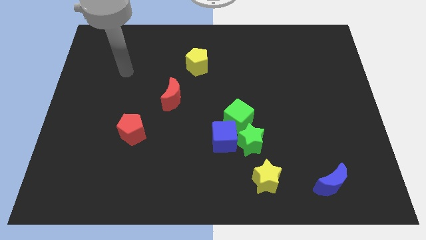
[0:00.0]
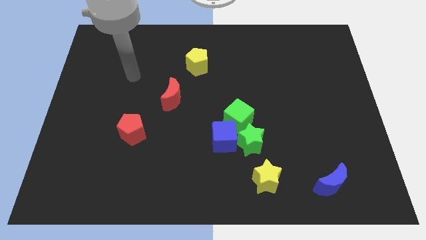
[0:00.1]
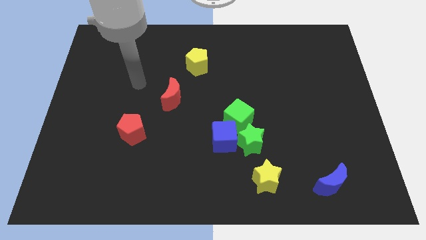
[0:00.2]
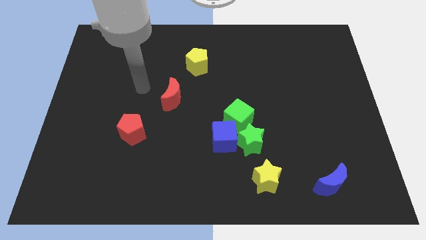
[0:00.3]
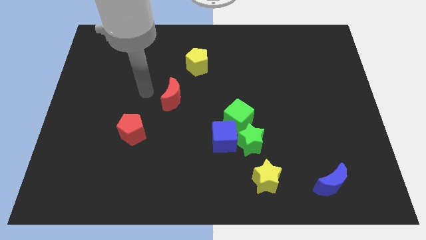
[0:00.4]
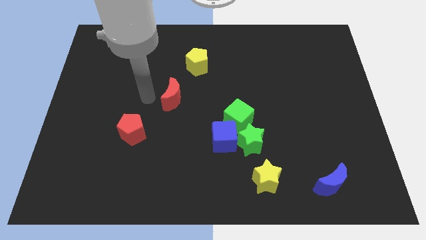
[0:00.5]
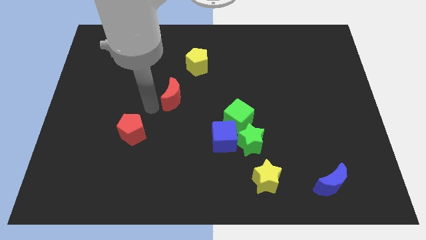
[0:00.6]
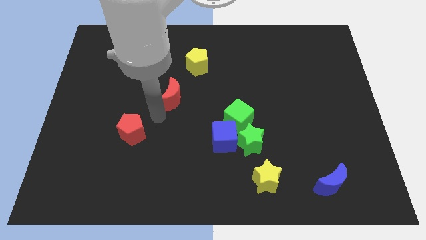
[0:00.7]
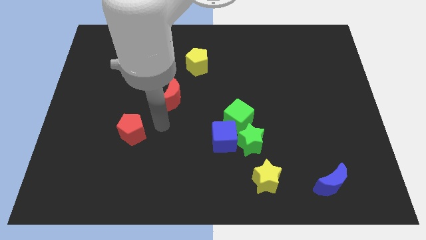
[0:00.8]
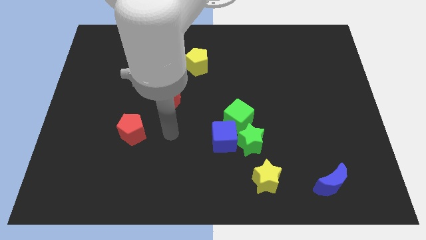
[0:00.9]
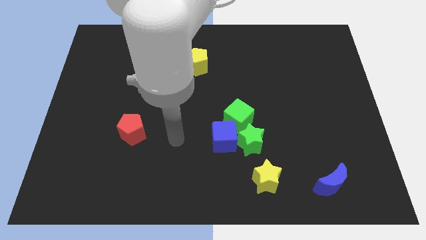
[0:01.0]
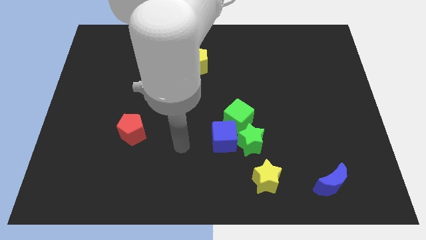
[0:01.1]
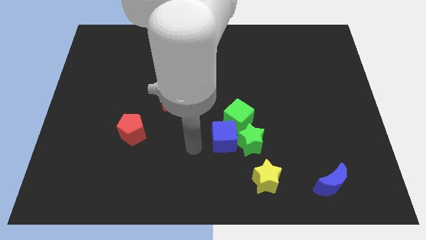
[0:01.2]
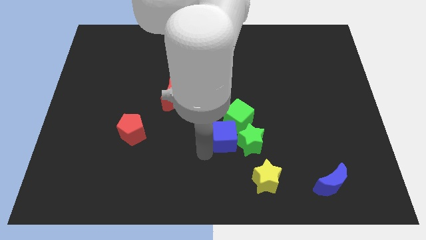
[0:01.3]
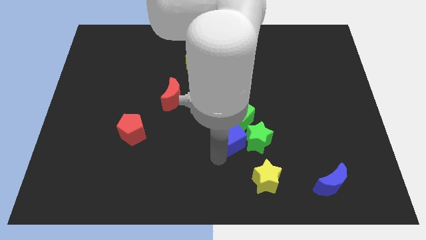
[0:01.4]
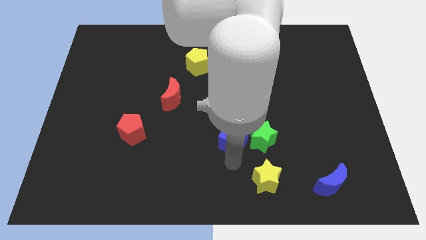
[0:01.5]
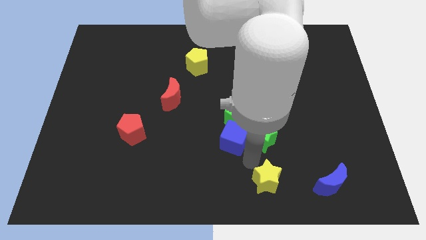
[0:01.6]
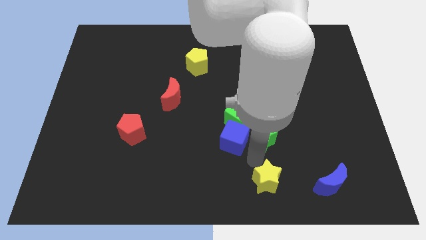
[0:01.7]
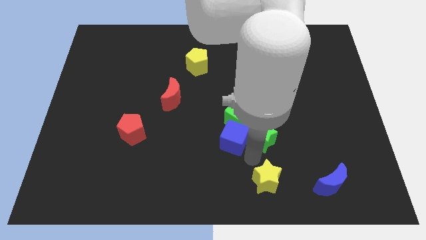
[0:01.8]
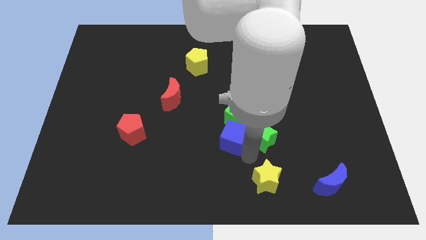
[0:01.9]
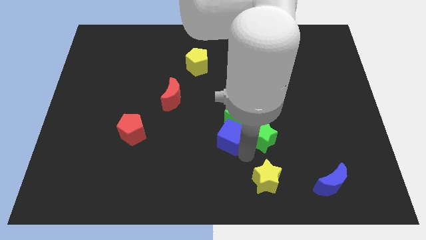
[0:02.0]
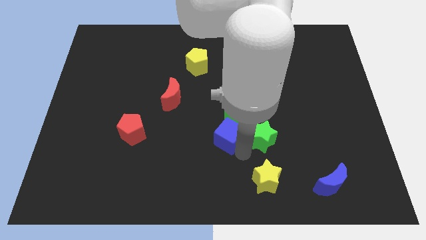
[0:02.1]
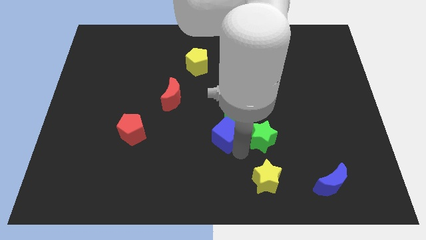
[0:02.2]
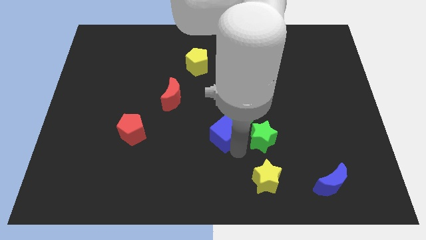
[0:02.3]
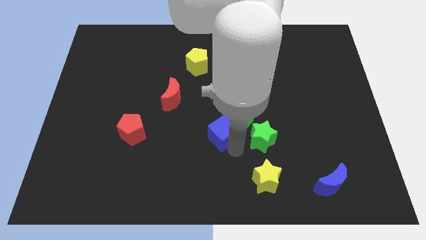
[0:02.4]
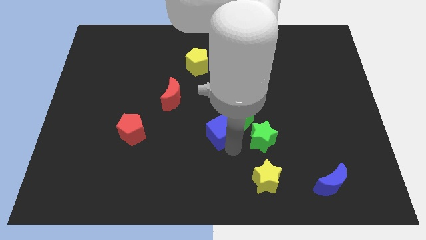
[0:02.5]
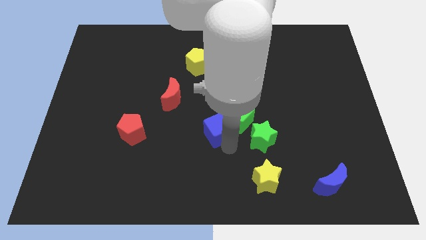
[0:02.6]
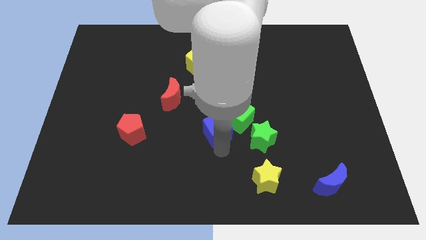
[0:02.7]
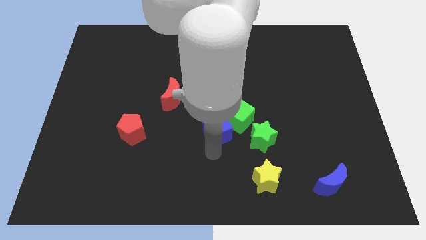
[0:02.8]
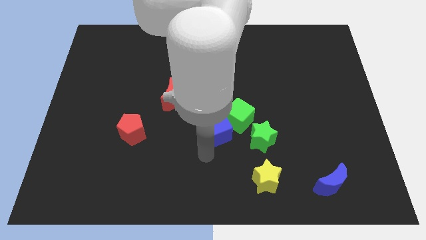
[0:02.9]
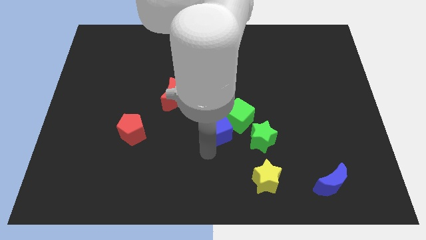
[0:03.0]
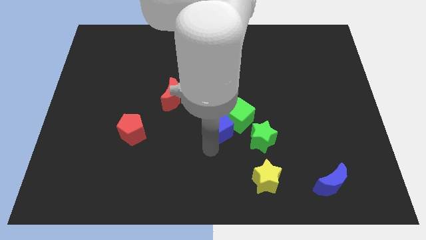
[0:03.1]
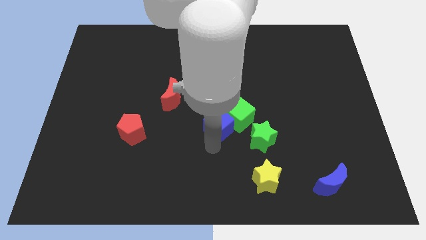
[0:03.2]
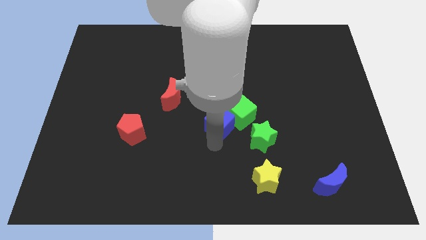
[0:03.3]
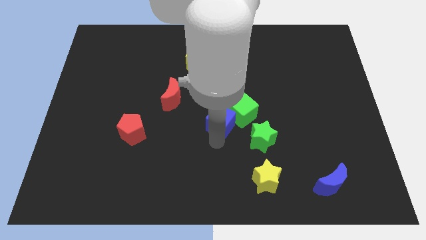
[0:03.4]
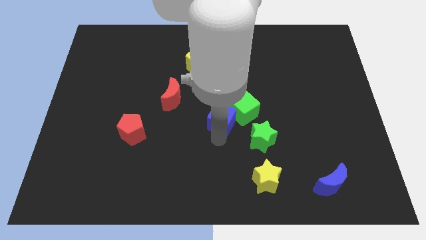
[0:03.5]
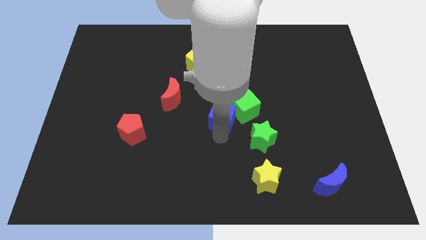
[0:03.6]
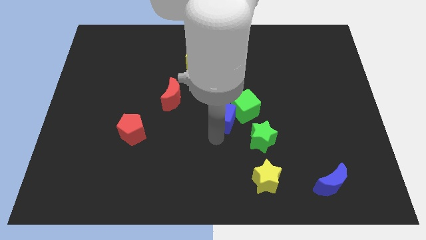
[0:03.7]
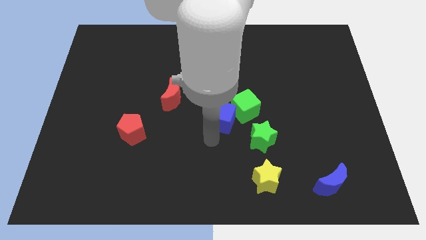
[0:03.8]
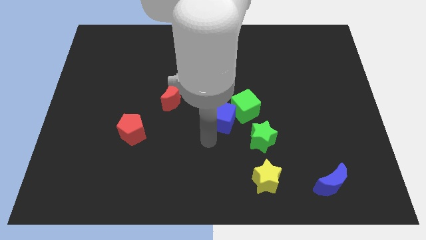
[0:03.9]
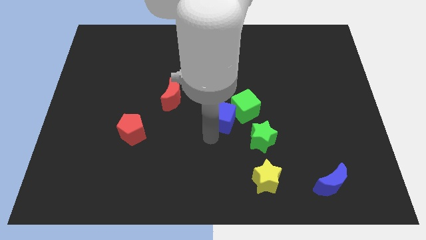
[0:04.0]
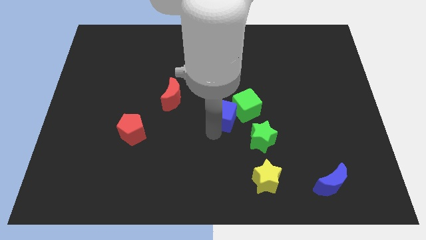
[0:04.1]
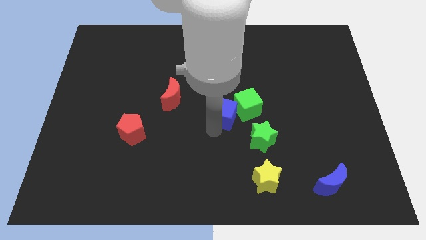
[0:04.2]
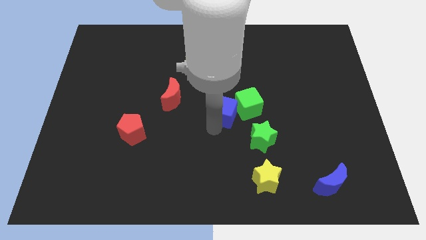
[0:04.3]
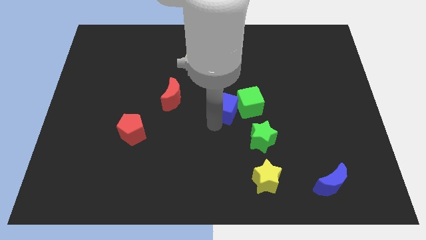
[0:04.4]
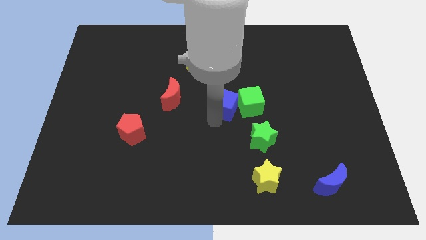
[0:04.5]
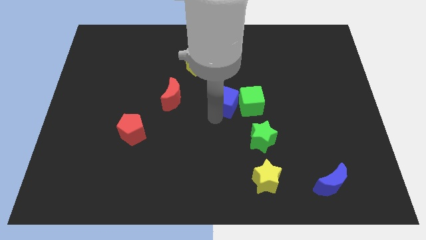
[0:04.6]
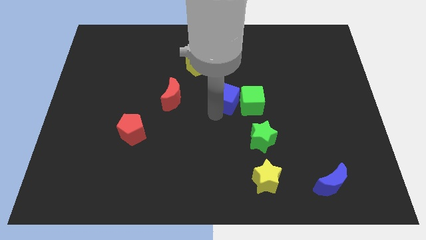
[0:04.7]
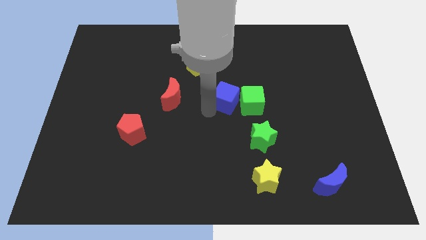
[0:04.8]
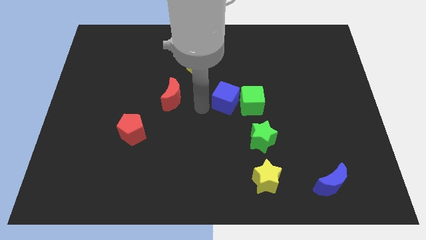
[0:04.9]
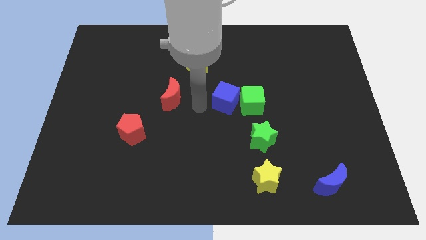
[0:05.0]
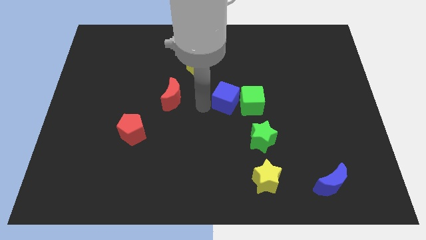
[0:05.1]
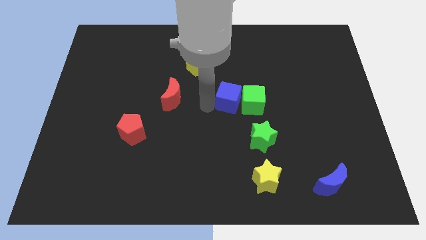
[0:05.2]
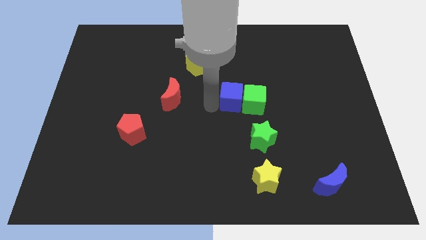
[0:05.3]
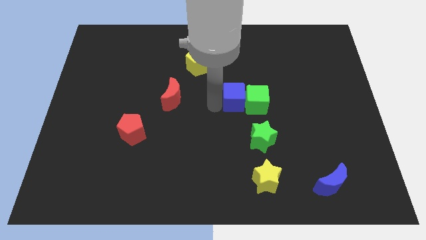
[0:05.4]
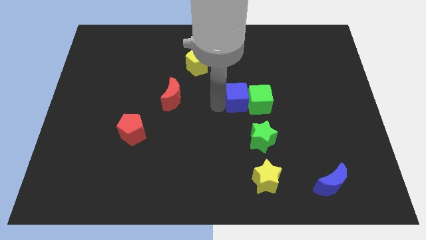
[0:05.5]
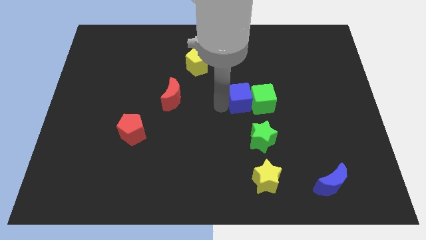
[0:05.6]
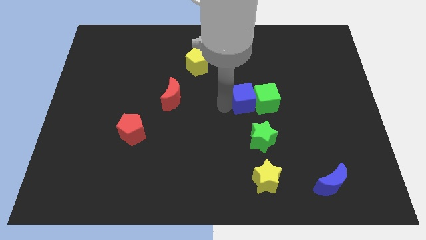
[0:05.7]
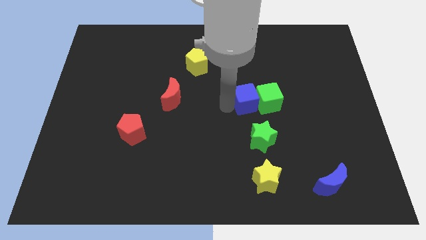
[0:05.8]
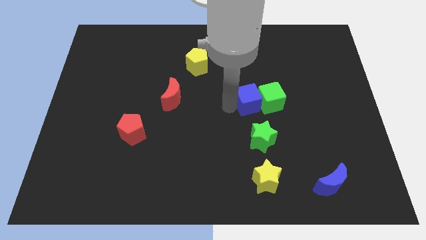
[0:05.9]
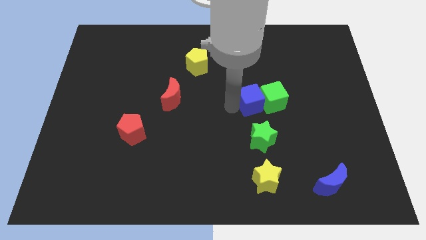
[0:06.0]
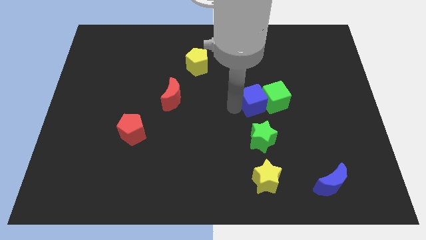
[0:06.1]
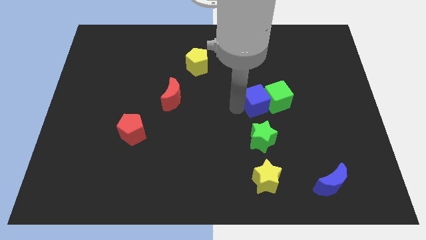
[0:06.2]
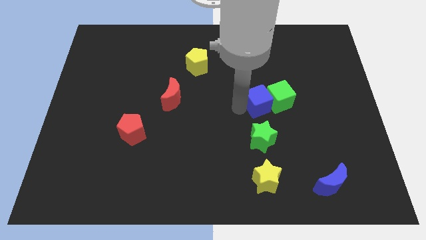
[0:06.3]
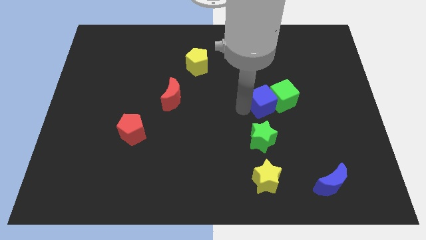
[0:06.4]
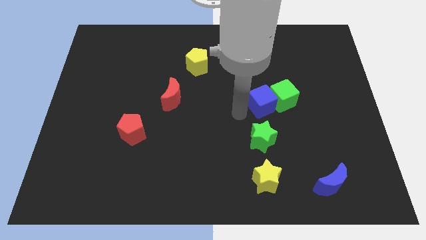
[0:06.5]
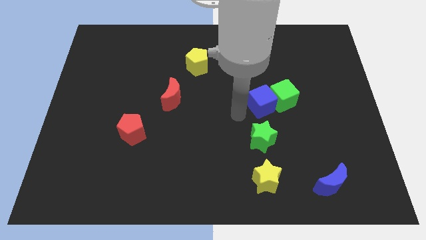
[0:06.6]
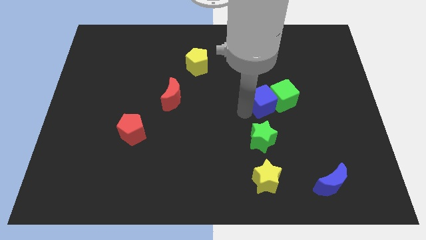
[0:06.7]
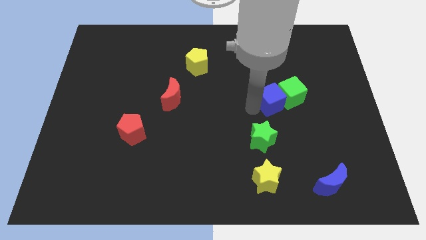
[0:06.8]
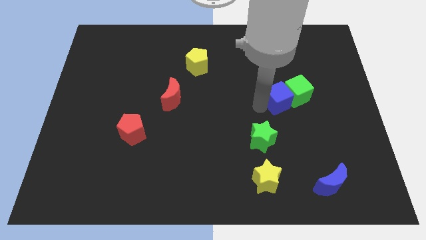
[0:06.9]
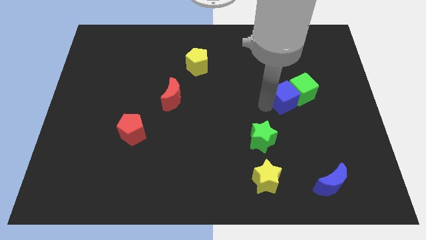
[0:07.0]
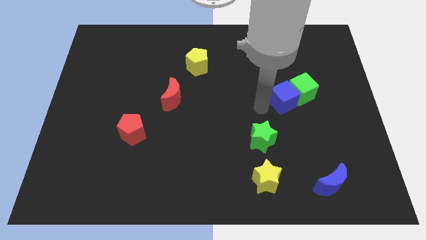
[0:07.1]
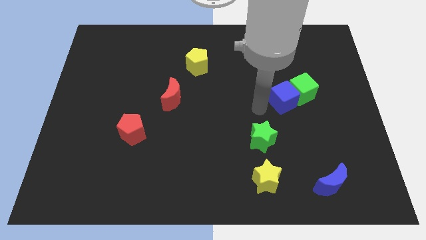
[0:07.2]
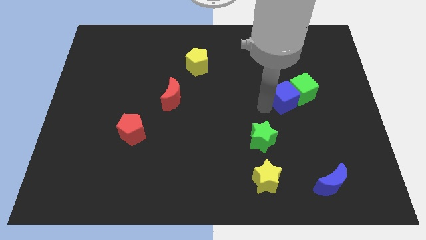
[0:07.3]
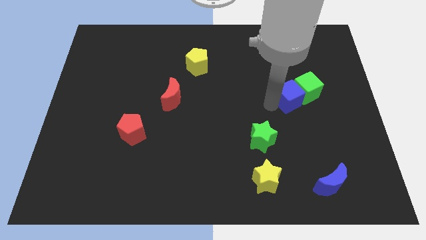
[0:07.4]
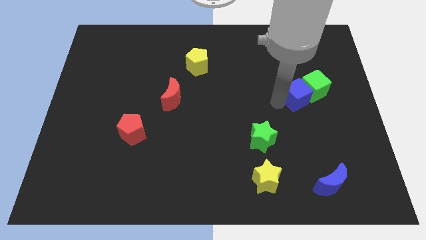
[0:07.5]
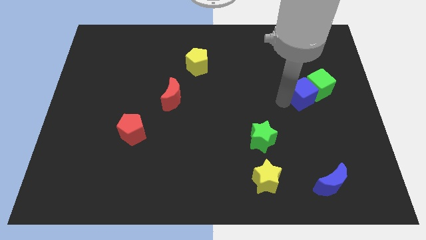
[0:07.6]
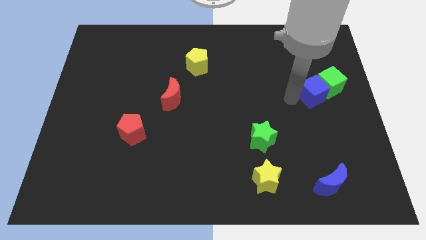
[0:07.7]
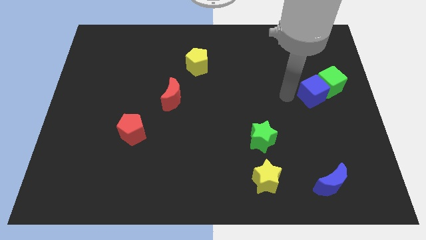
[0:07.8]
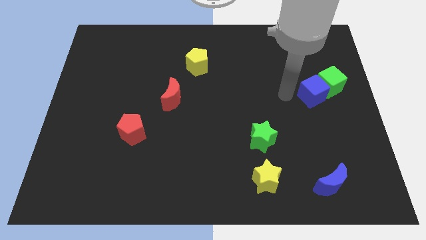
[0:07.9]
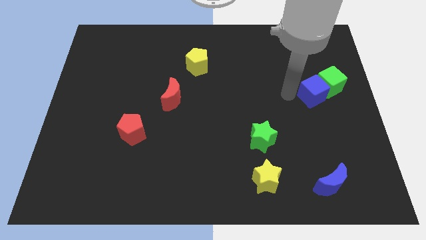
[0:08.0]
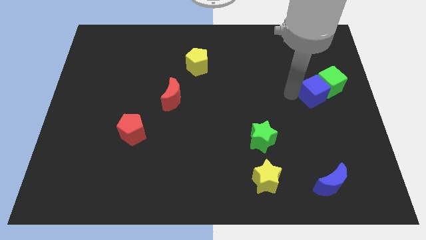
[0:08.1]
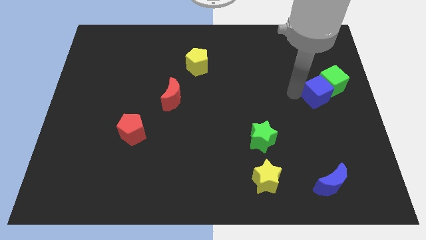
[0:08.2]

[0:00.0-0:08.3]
put the blue cube to the center right
